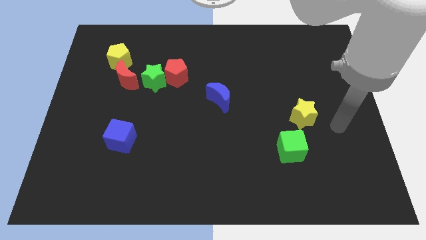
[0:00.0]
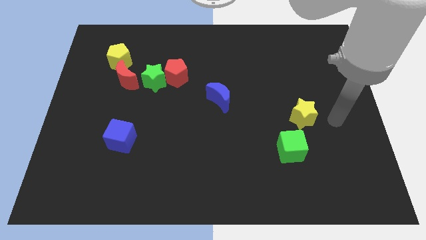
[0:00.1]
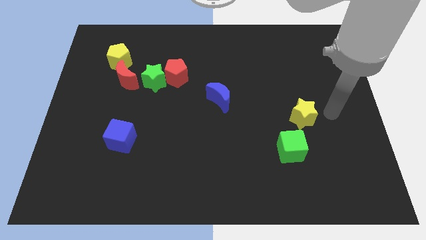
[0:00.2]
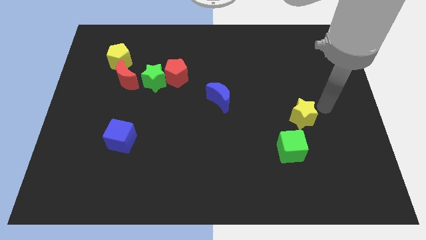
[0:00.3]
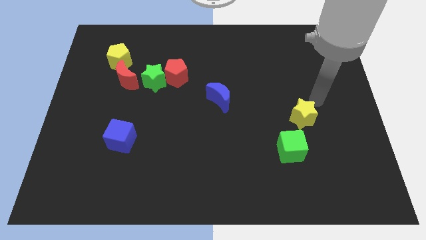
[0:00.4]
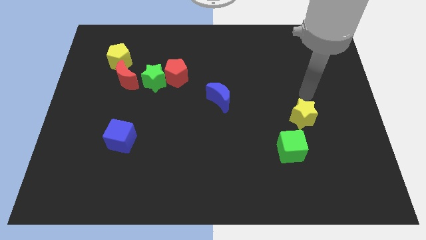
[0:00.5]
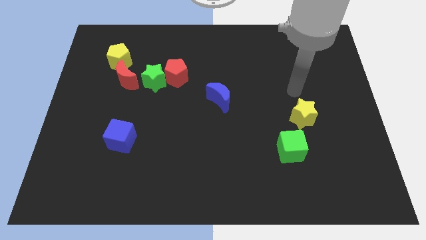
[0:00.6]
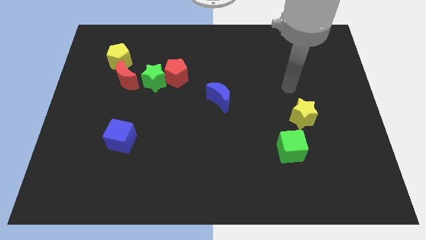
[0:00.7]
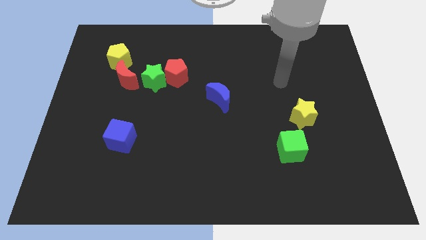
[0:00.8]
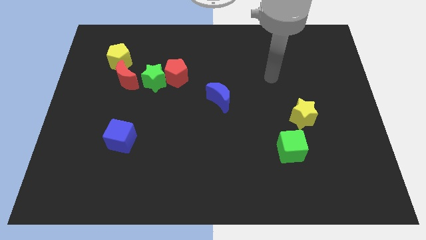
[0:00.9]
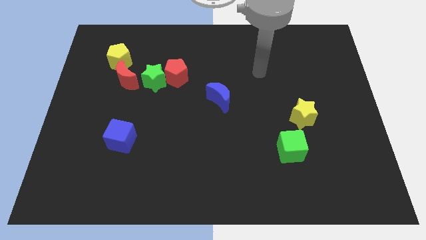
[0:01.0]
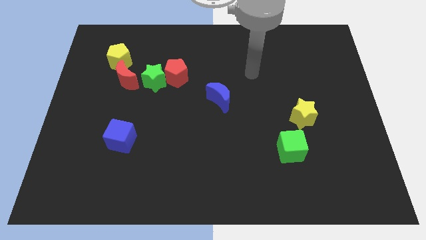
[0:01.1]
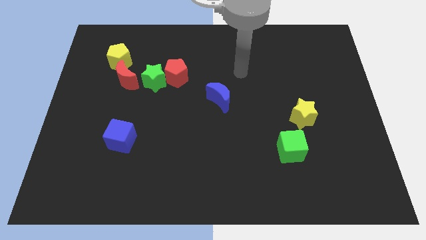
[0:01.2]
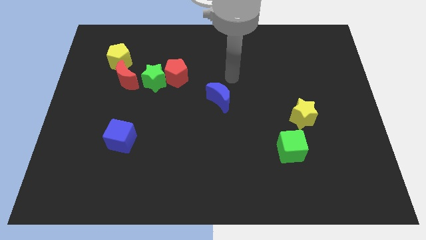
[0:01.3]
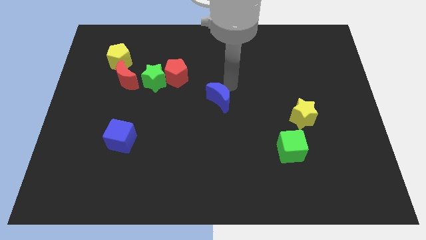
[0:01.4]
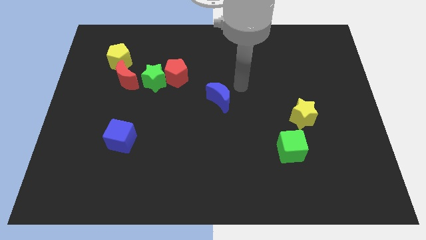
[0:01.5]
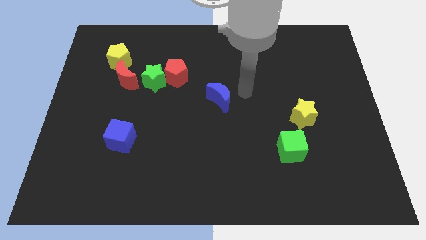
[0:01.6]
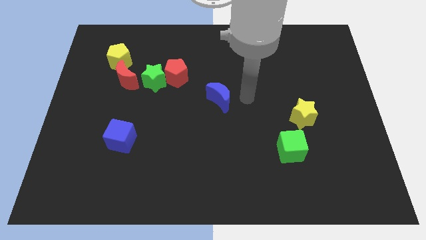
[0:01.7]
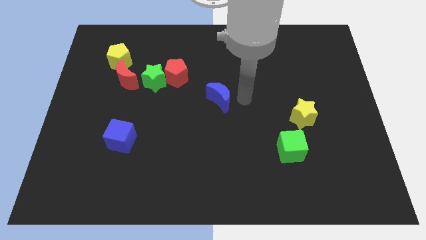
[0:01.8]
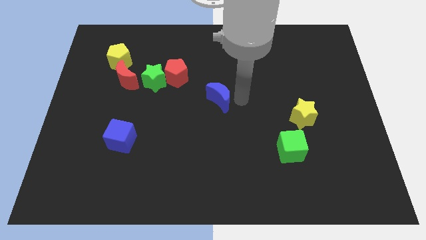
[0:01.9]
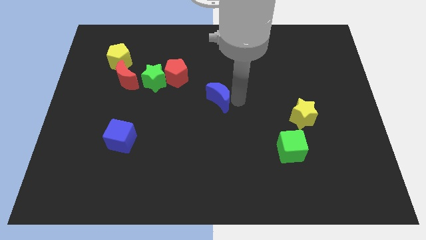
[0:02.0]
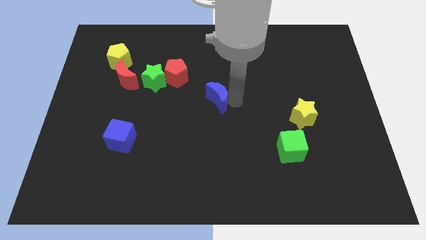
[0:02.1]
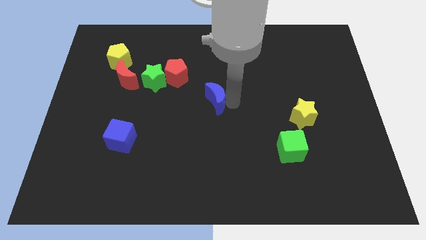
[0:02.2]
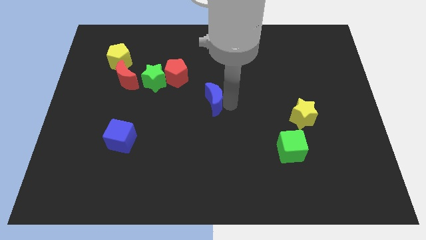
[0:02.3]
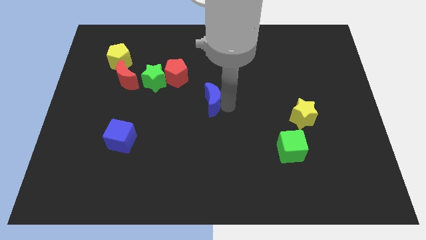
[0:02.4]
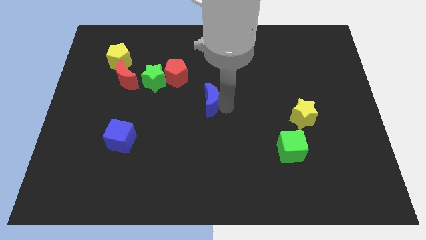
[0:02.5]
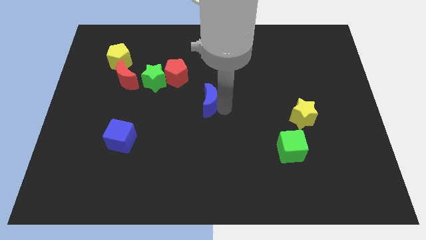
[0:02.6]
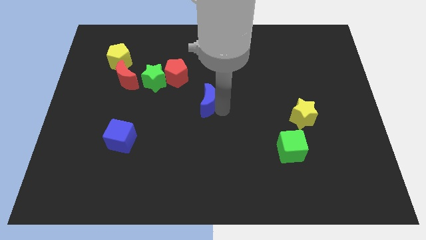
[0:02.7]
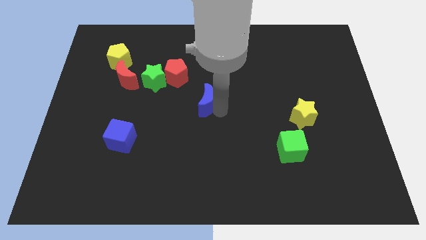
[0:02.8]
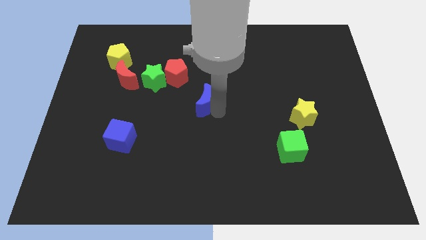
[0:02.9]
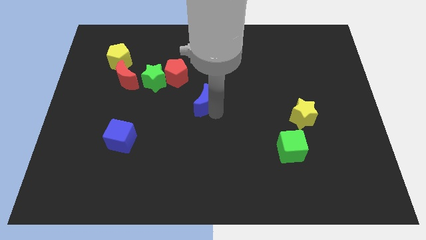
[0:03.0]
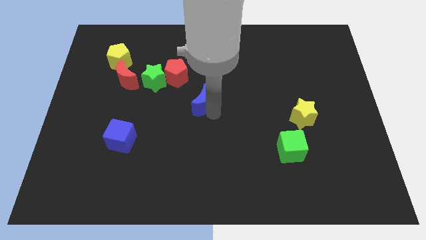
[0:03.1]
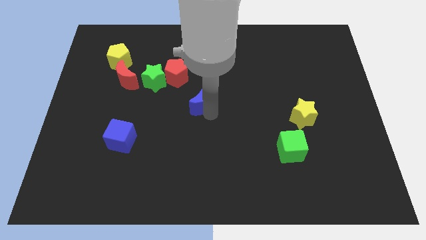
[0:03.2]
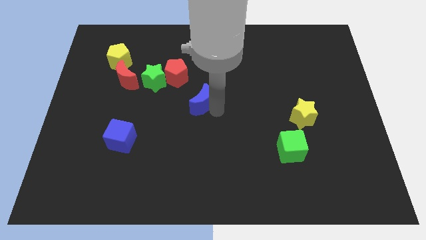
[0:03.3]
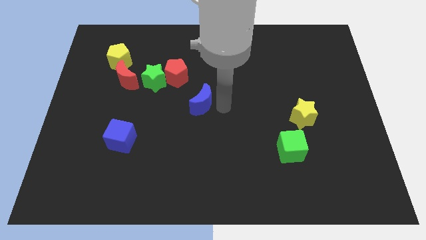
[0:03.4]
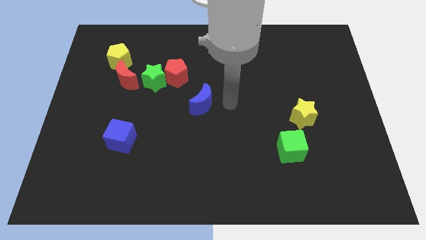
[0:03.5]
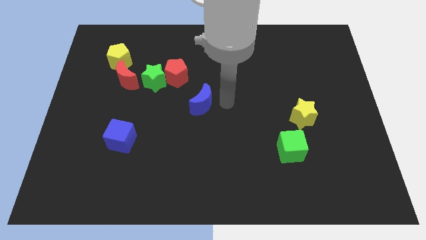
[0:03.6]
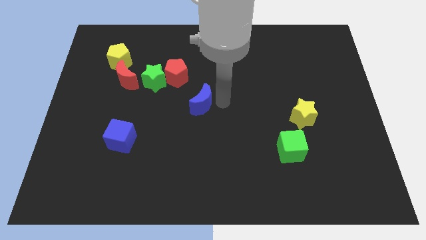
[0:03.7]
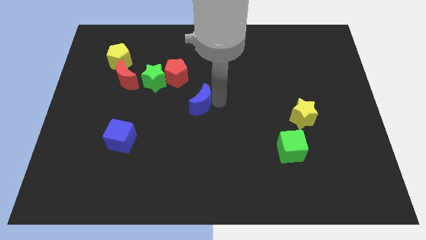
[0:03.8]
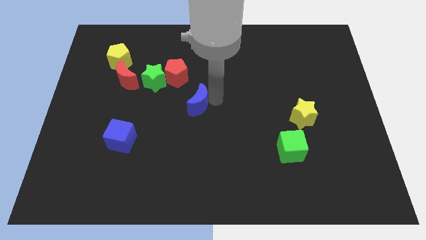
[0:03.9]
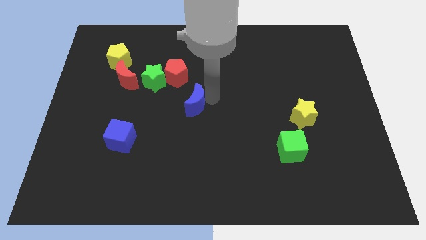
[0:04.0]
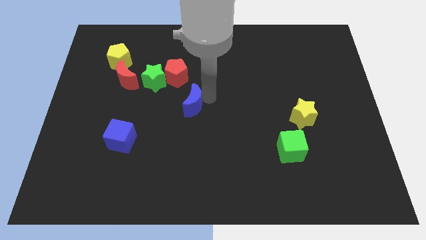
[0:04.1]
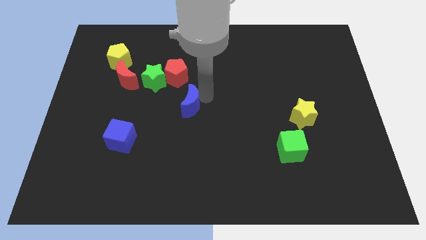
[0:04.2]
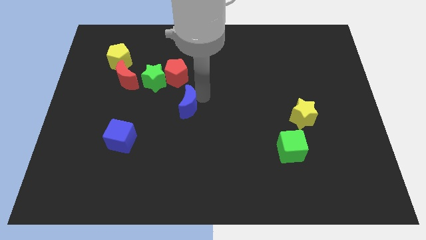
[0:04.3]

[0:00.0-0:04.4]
slide the blue moon a bit left

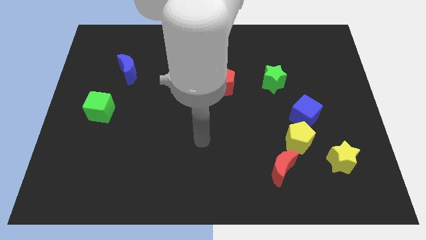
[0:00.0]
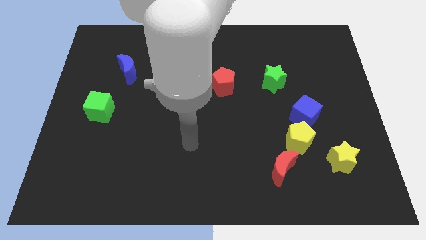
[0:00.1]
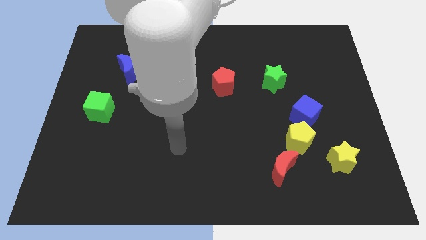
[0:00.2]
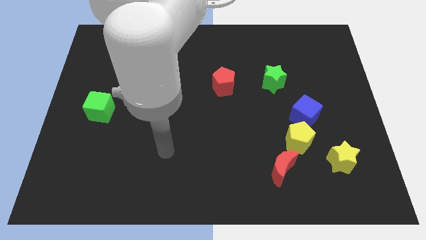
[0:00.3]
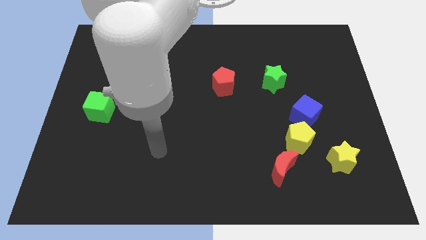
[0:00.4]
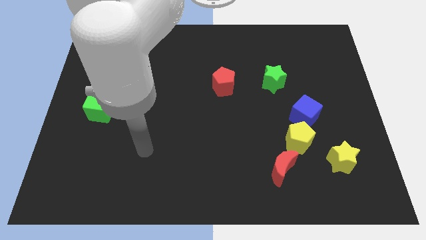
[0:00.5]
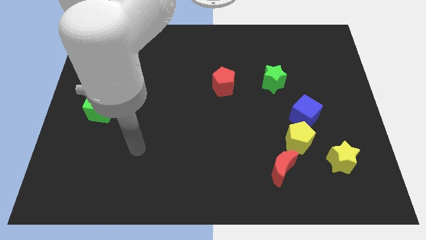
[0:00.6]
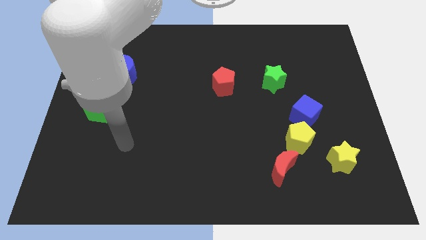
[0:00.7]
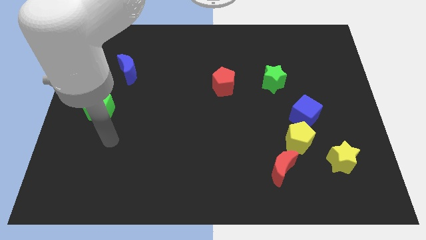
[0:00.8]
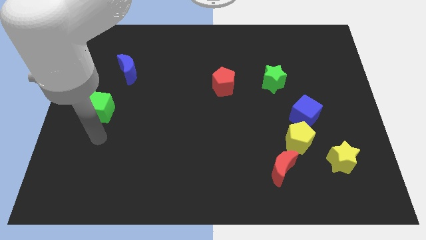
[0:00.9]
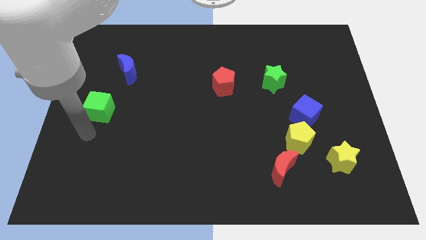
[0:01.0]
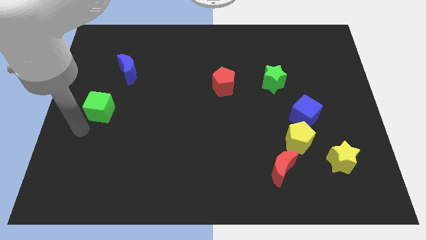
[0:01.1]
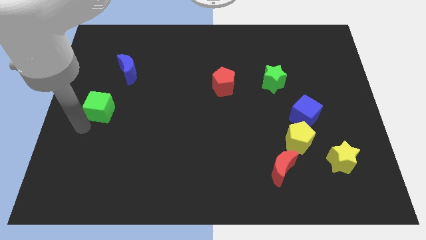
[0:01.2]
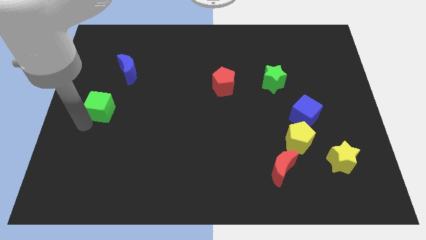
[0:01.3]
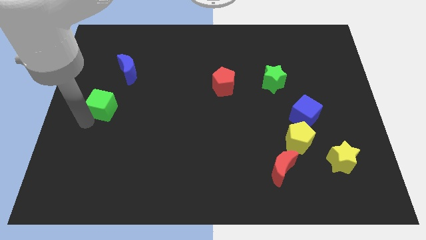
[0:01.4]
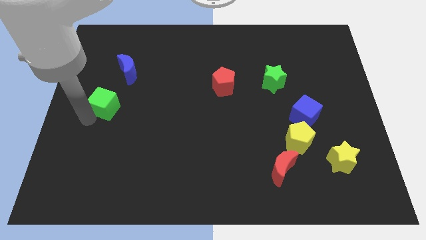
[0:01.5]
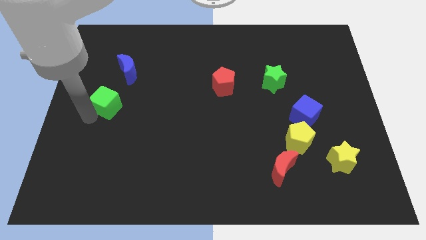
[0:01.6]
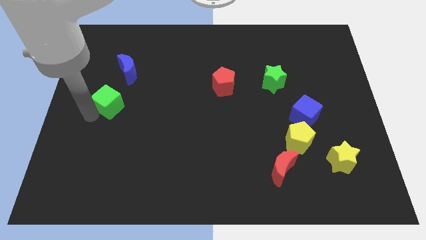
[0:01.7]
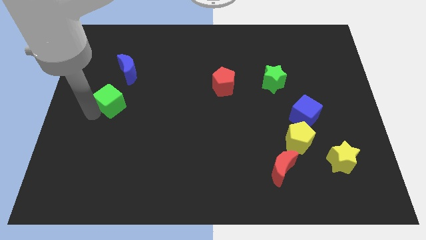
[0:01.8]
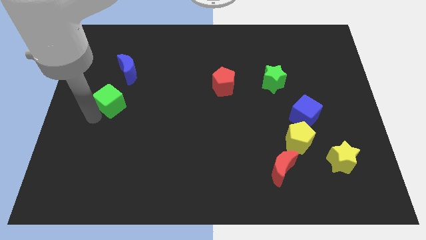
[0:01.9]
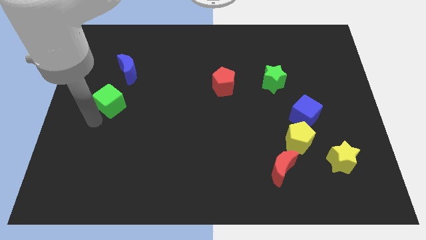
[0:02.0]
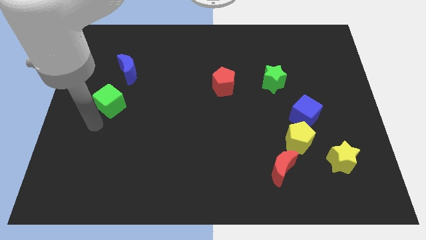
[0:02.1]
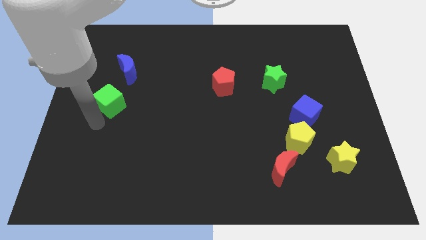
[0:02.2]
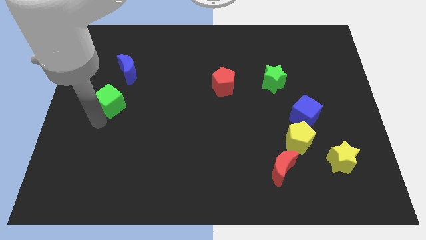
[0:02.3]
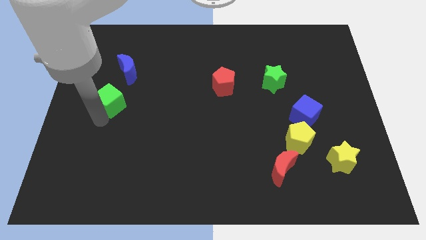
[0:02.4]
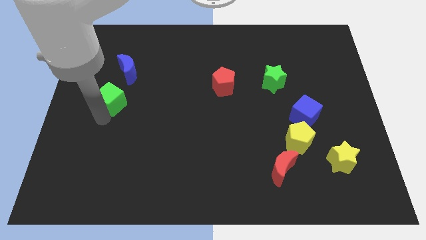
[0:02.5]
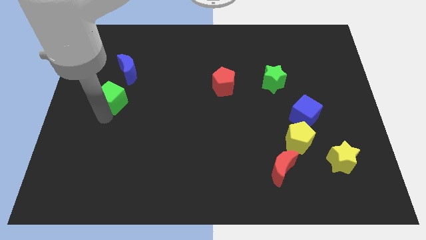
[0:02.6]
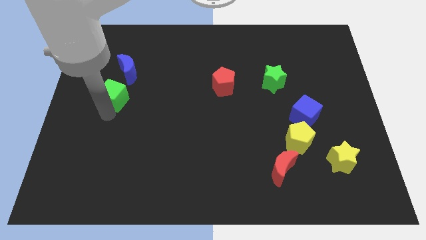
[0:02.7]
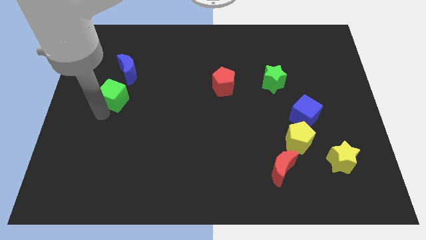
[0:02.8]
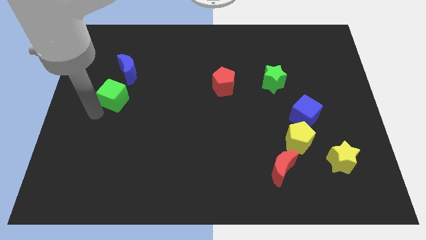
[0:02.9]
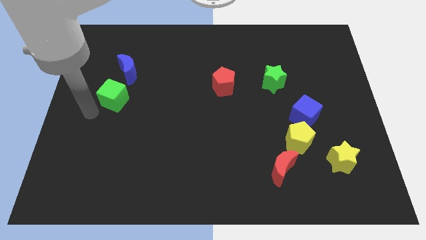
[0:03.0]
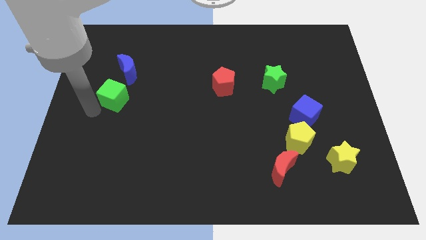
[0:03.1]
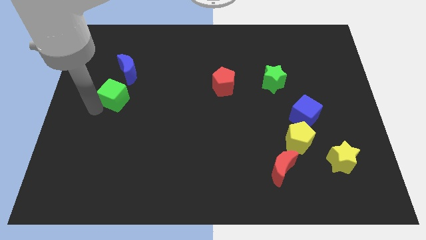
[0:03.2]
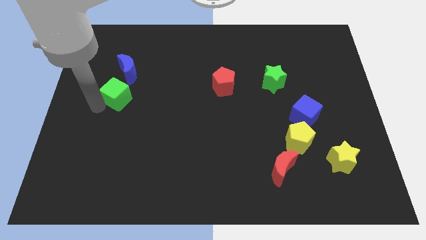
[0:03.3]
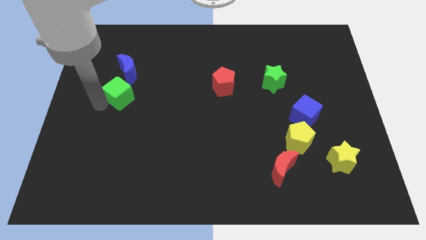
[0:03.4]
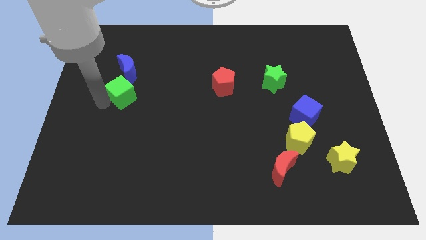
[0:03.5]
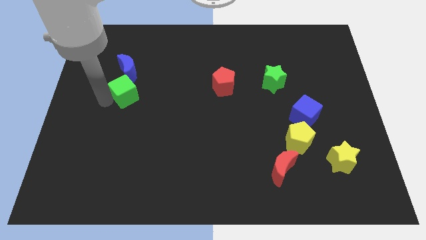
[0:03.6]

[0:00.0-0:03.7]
push the green cube upwards and to the right a little
